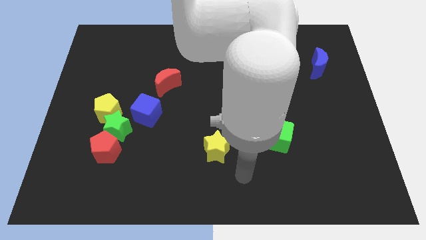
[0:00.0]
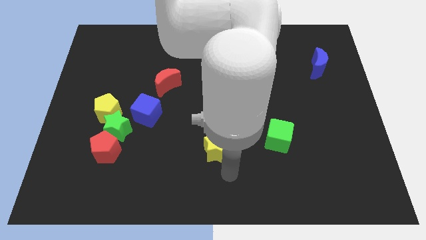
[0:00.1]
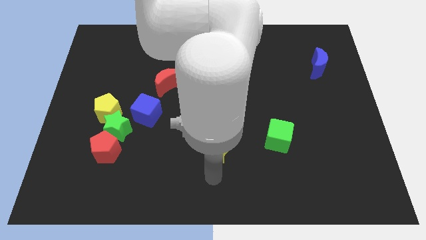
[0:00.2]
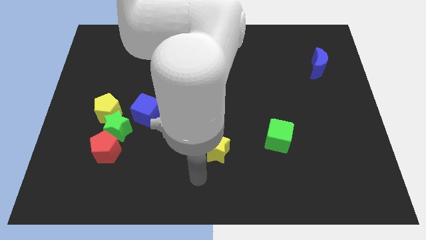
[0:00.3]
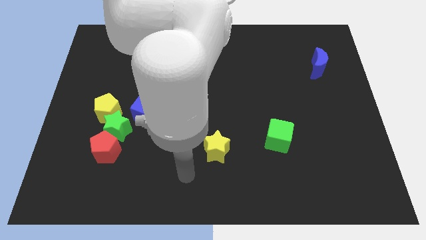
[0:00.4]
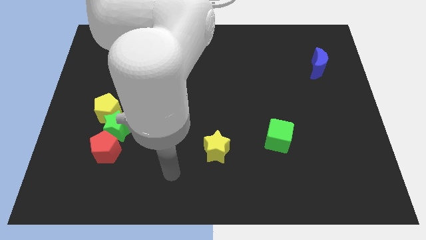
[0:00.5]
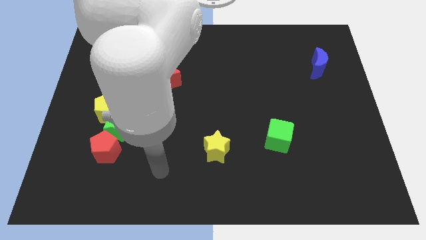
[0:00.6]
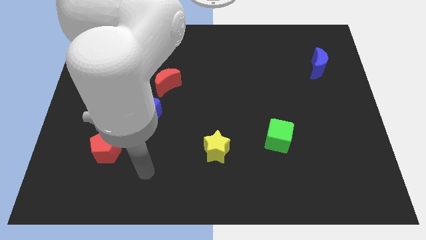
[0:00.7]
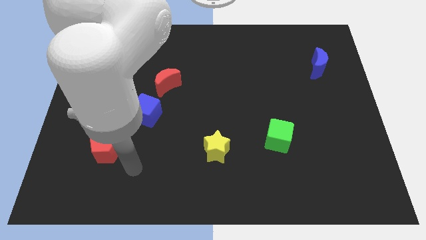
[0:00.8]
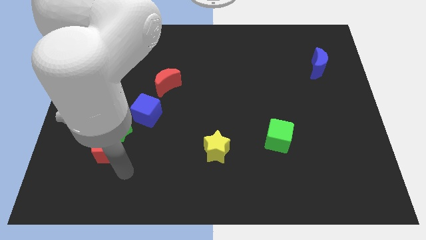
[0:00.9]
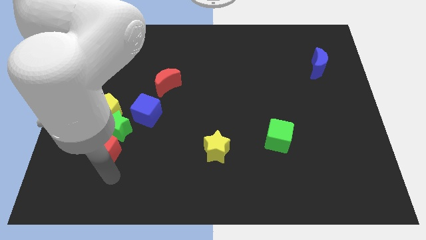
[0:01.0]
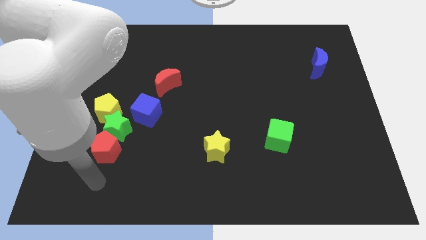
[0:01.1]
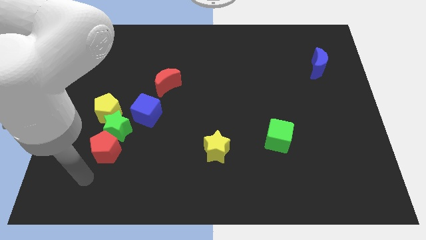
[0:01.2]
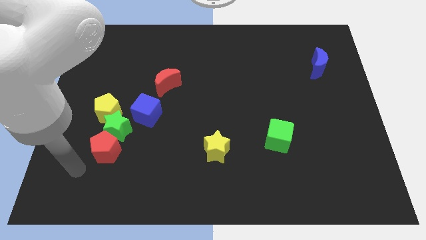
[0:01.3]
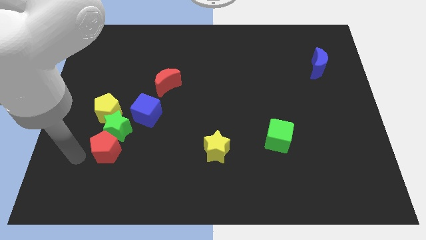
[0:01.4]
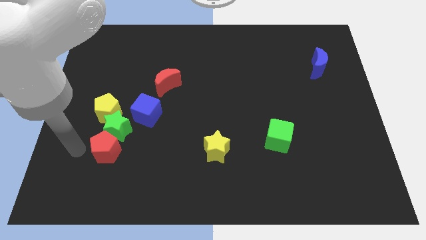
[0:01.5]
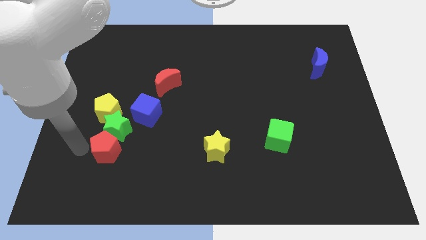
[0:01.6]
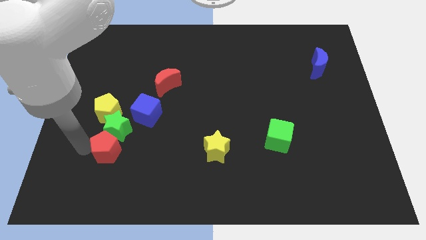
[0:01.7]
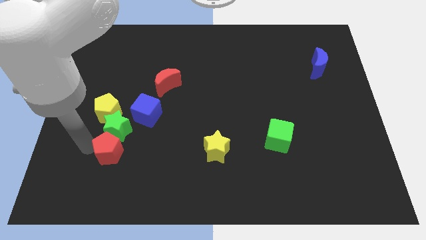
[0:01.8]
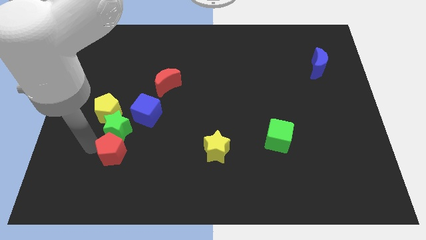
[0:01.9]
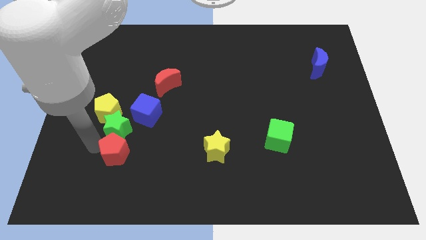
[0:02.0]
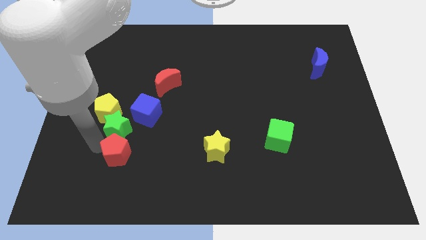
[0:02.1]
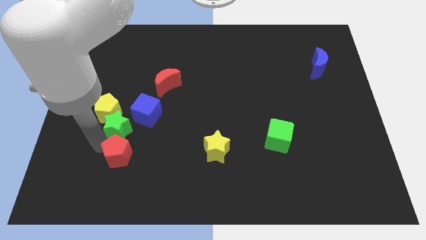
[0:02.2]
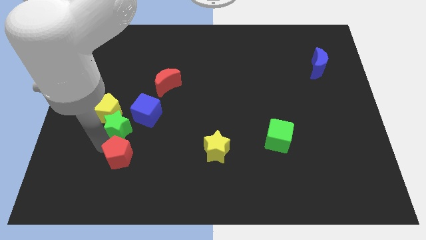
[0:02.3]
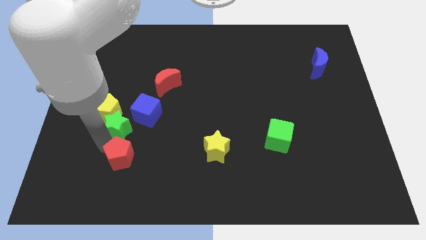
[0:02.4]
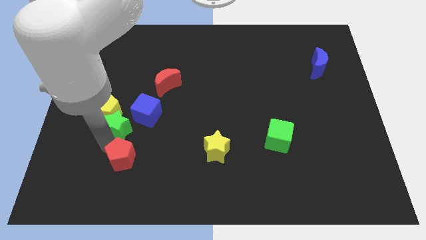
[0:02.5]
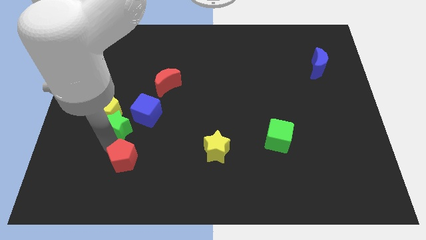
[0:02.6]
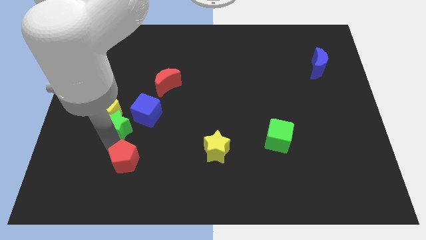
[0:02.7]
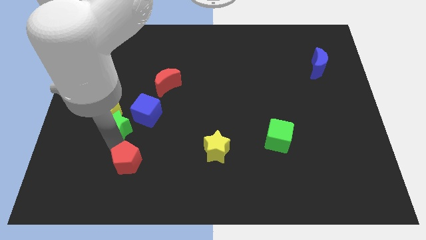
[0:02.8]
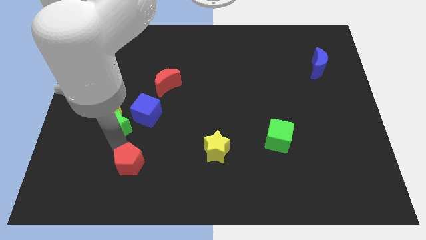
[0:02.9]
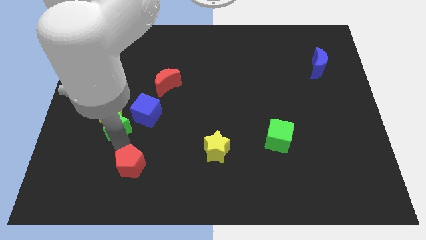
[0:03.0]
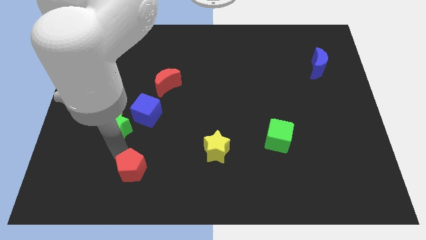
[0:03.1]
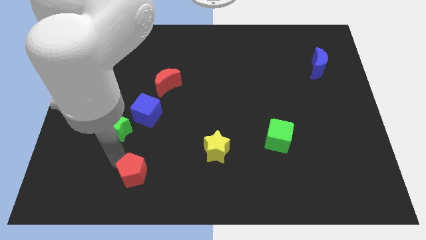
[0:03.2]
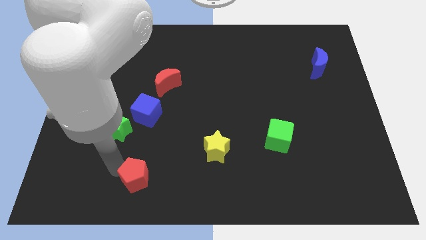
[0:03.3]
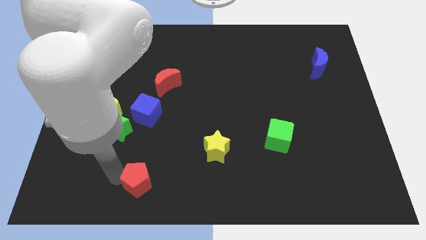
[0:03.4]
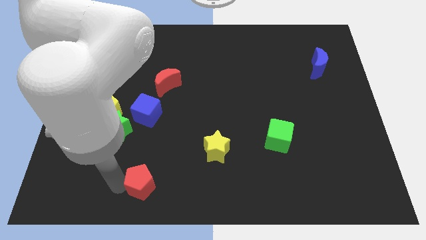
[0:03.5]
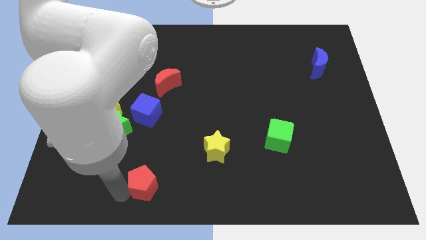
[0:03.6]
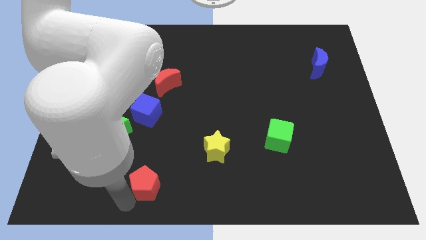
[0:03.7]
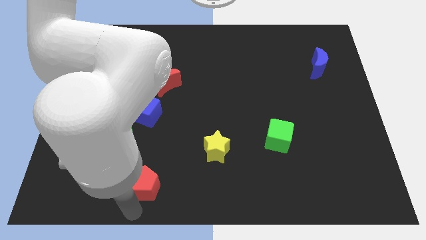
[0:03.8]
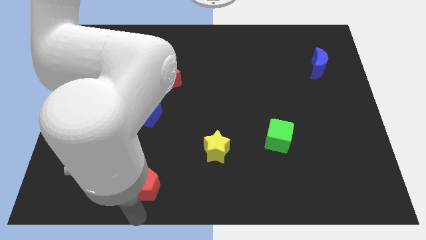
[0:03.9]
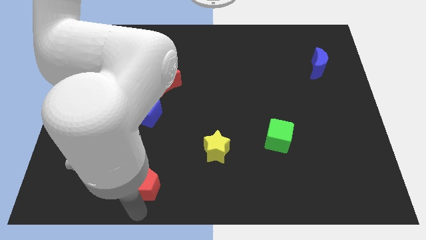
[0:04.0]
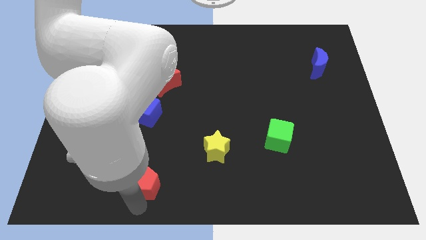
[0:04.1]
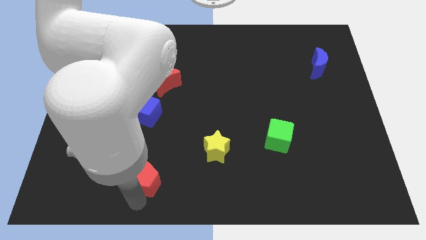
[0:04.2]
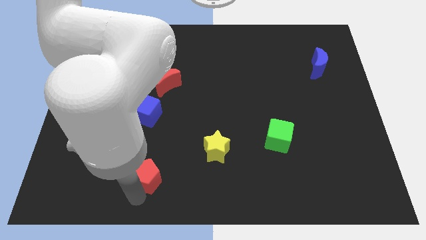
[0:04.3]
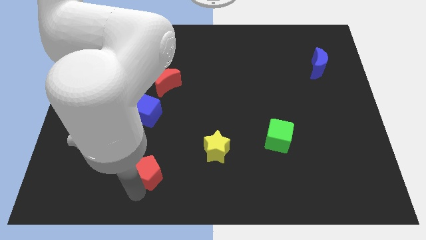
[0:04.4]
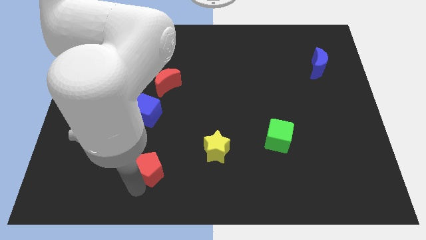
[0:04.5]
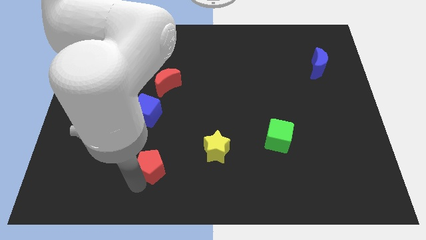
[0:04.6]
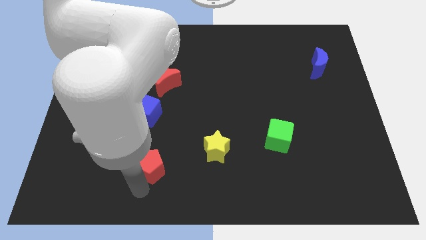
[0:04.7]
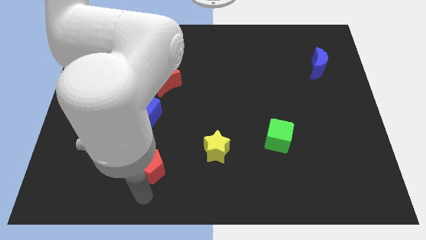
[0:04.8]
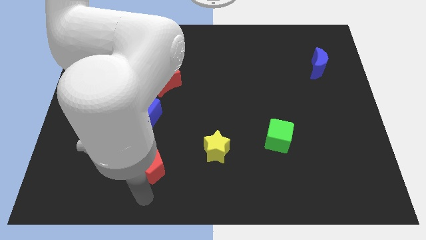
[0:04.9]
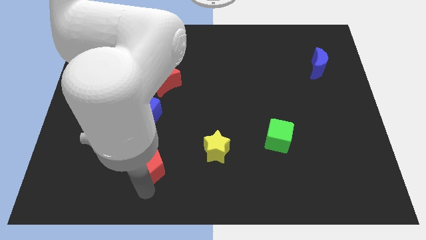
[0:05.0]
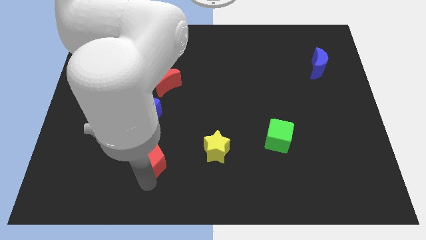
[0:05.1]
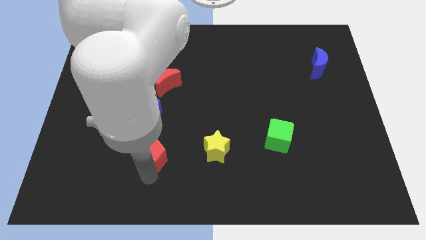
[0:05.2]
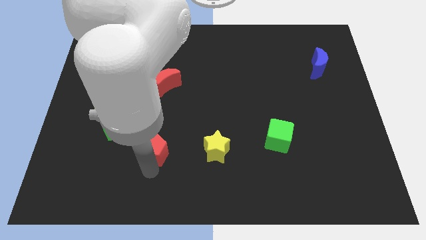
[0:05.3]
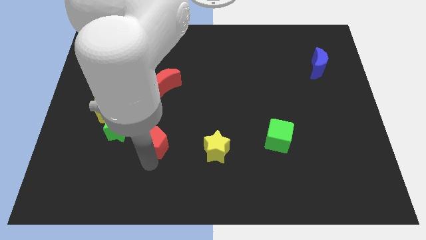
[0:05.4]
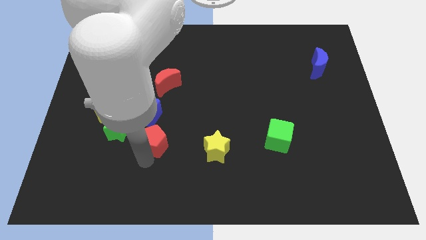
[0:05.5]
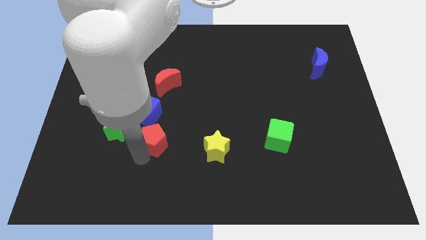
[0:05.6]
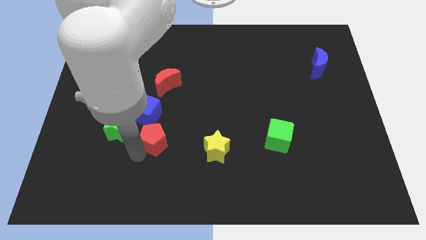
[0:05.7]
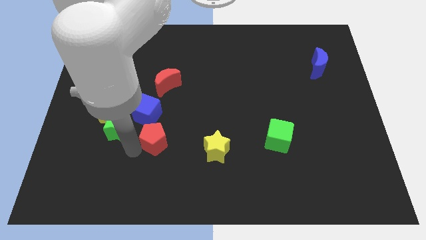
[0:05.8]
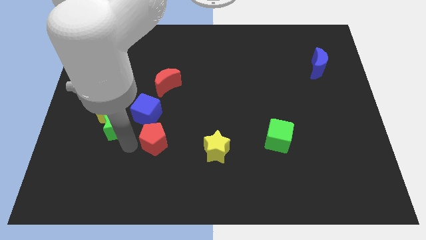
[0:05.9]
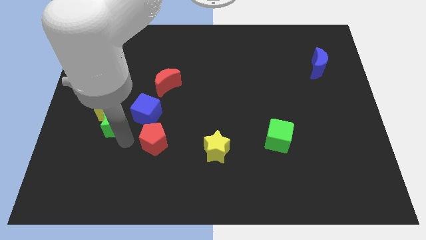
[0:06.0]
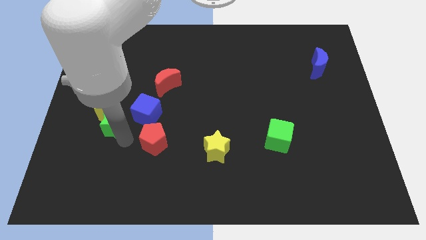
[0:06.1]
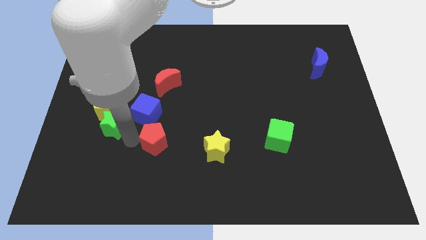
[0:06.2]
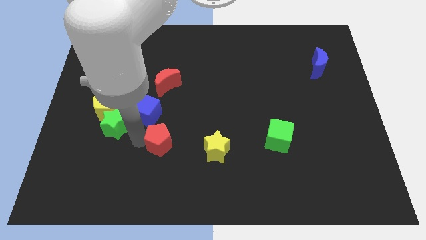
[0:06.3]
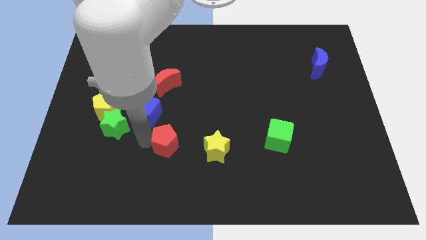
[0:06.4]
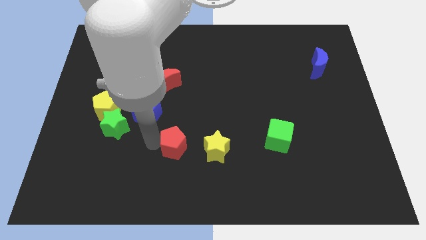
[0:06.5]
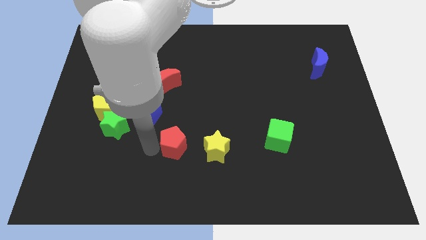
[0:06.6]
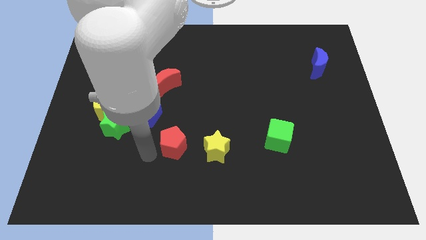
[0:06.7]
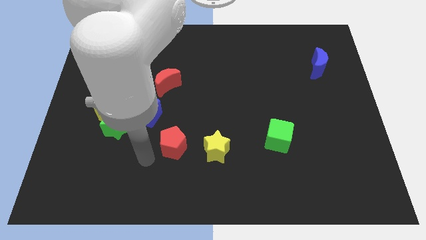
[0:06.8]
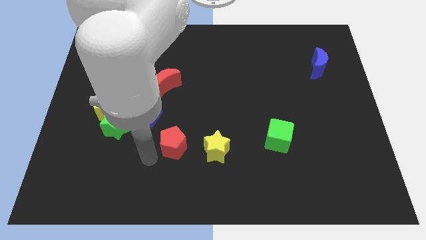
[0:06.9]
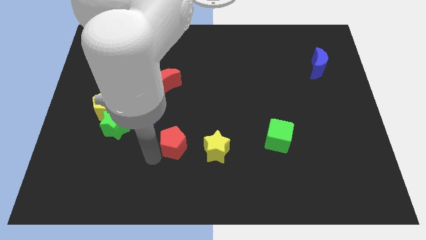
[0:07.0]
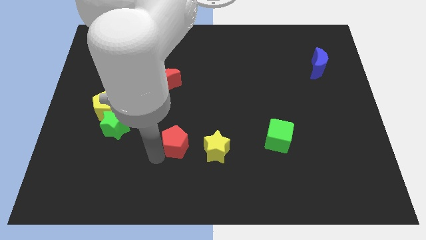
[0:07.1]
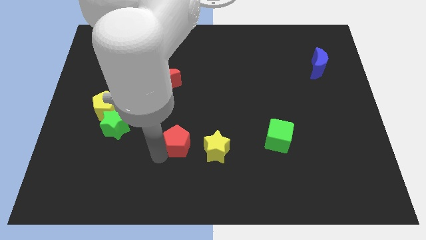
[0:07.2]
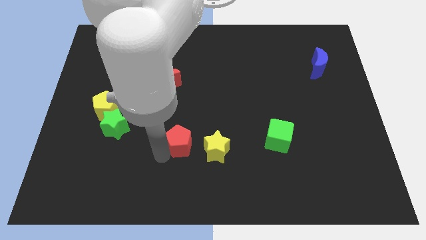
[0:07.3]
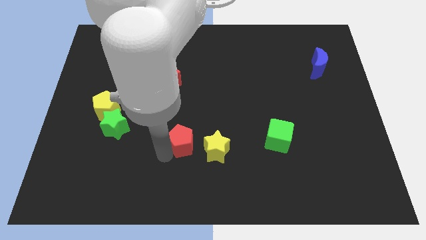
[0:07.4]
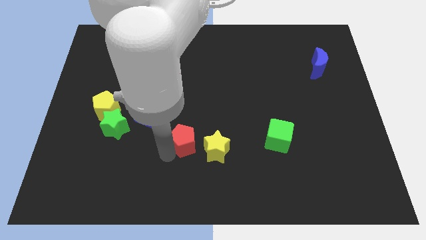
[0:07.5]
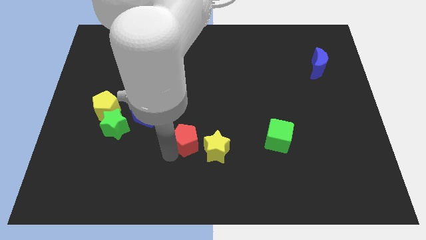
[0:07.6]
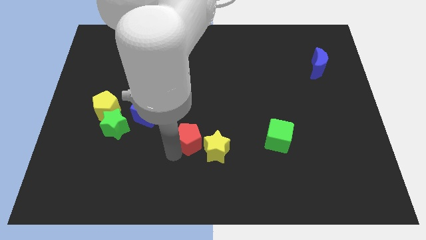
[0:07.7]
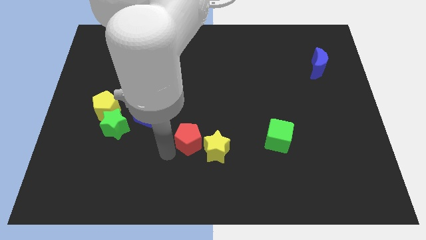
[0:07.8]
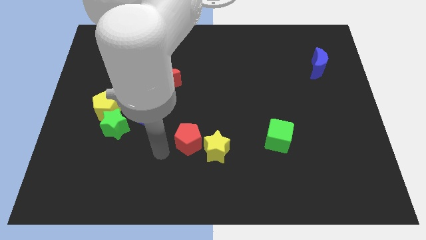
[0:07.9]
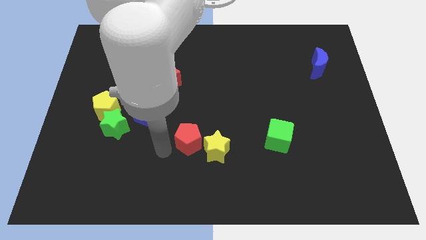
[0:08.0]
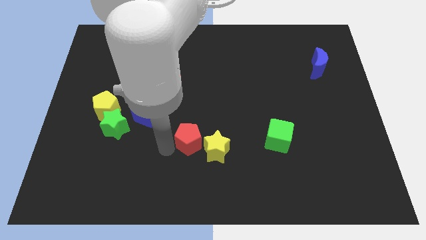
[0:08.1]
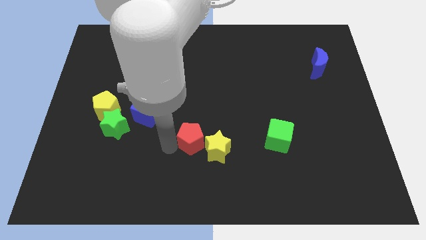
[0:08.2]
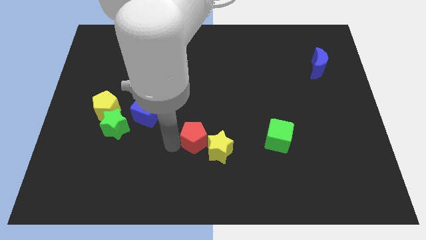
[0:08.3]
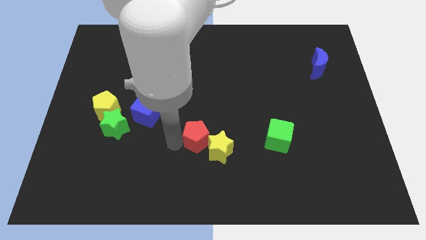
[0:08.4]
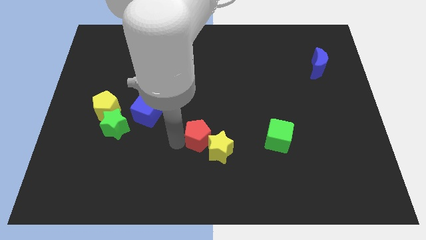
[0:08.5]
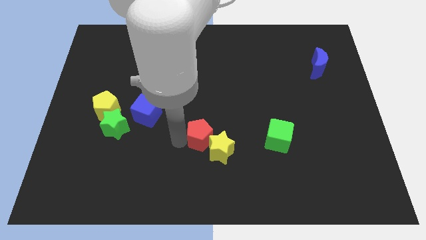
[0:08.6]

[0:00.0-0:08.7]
move the red pentagon to the right
